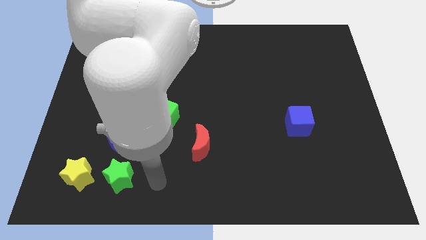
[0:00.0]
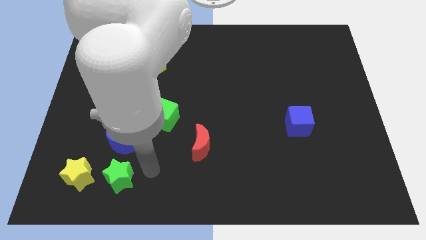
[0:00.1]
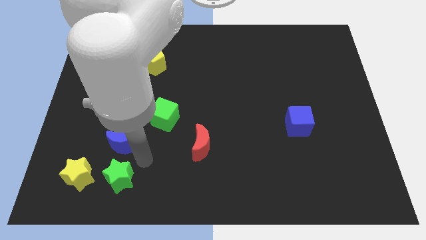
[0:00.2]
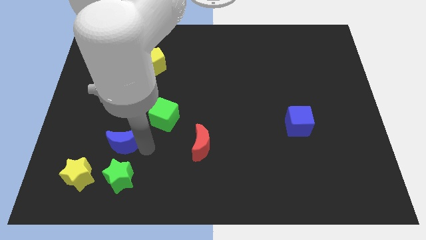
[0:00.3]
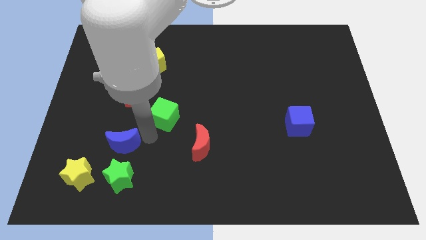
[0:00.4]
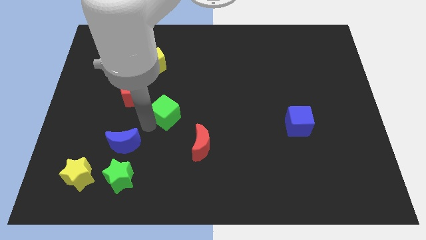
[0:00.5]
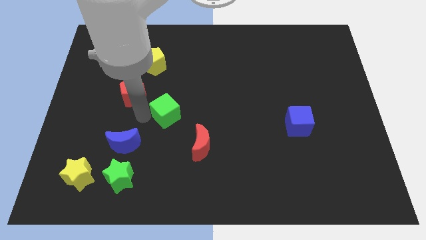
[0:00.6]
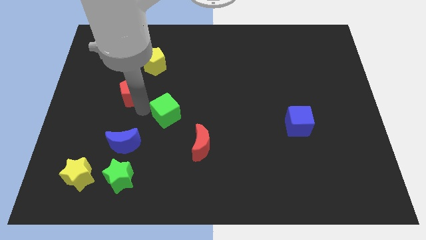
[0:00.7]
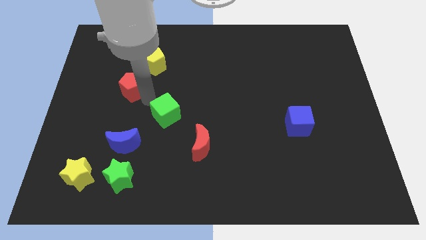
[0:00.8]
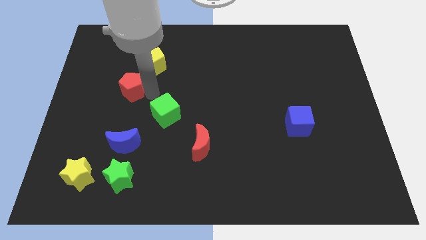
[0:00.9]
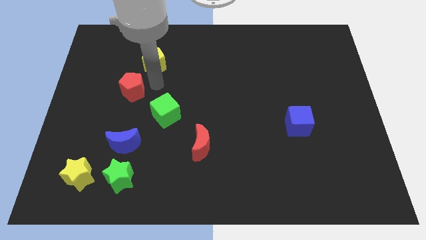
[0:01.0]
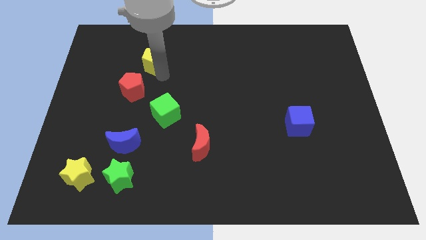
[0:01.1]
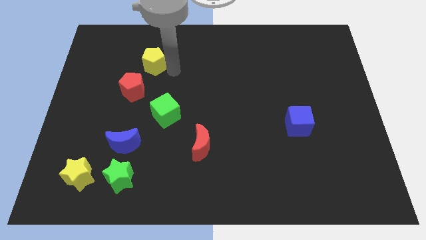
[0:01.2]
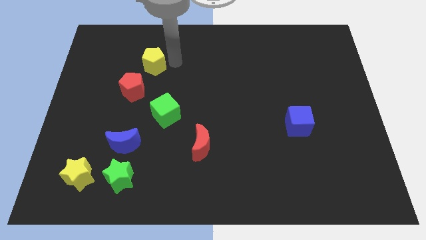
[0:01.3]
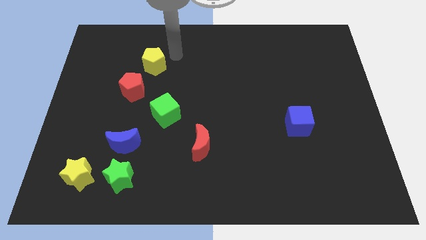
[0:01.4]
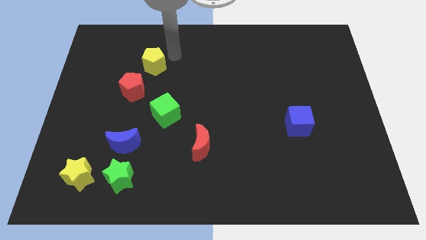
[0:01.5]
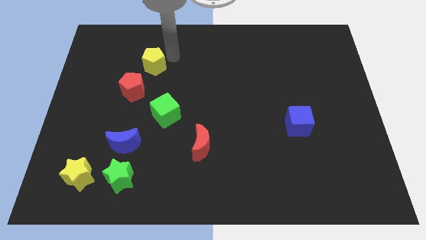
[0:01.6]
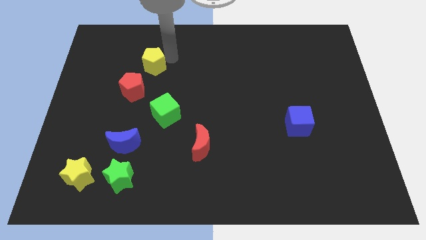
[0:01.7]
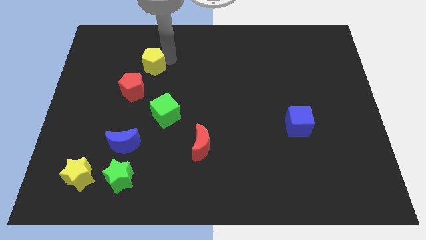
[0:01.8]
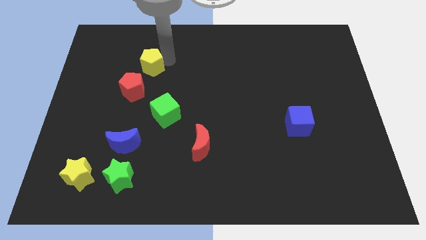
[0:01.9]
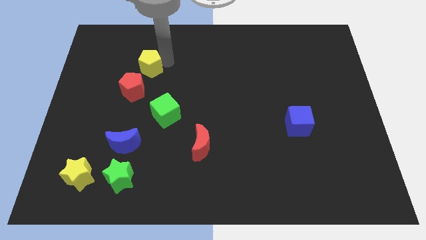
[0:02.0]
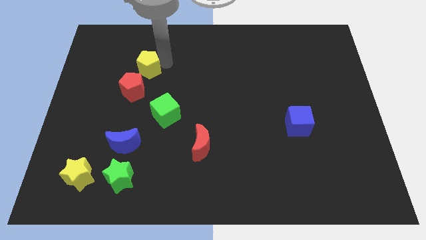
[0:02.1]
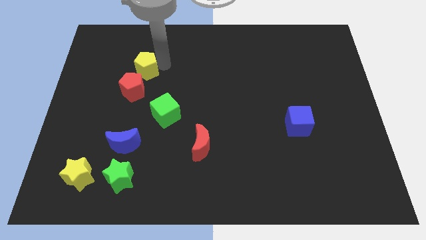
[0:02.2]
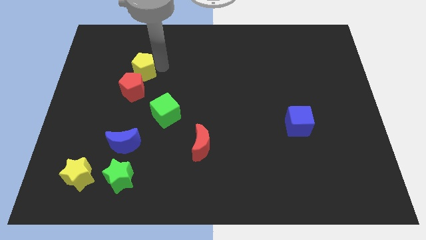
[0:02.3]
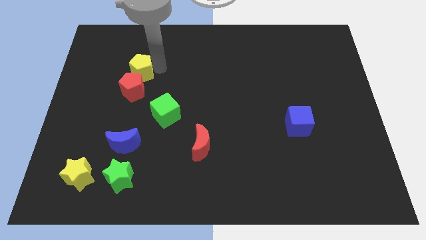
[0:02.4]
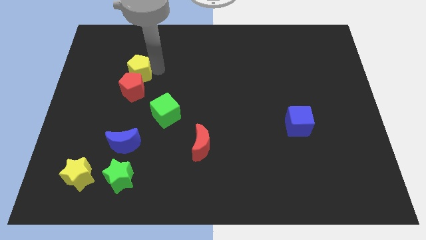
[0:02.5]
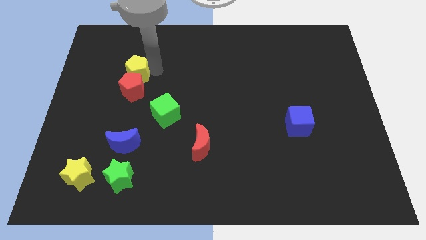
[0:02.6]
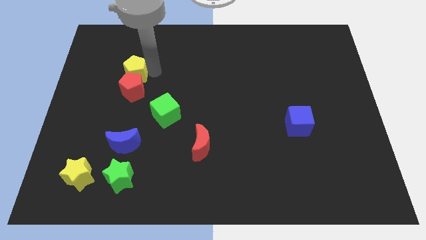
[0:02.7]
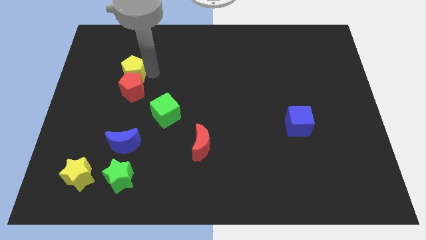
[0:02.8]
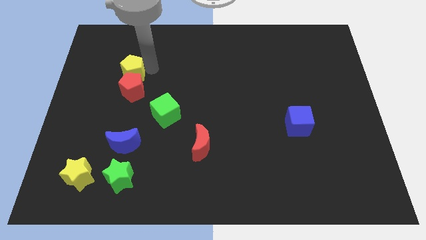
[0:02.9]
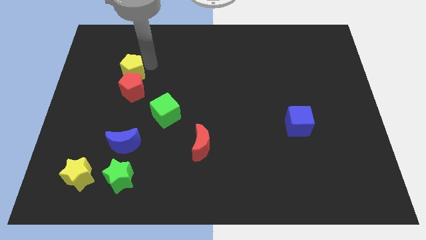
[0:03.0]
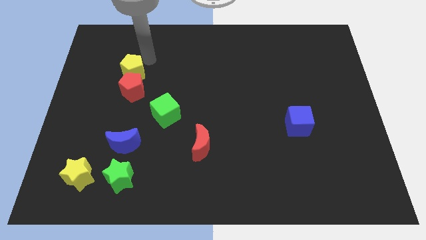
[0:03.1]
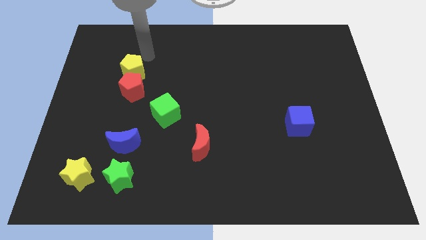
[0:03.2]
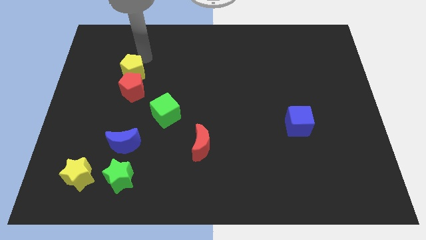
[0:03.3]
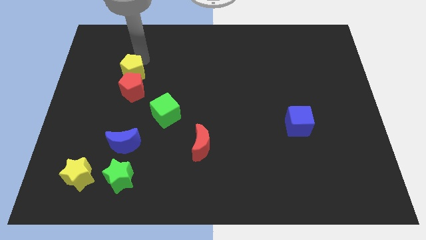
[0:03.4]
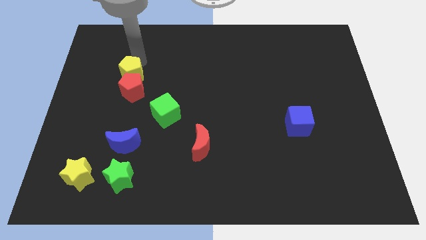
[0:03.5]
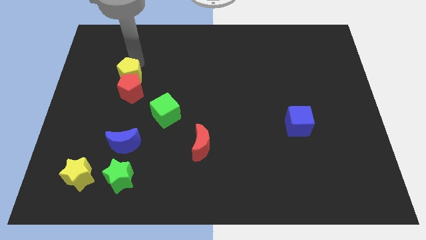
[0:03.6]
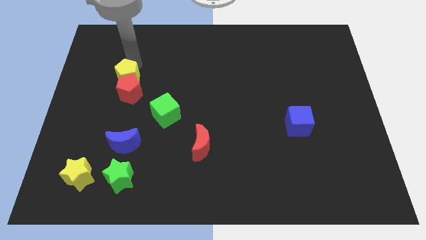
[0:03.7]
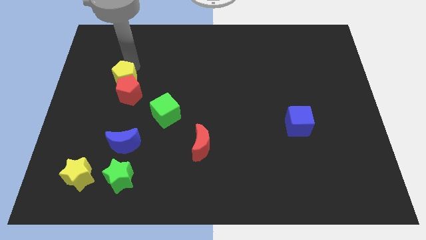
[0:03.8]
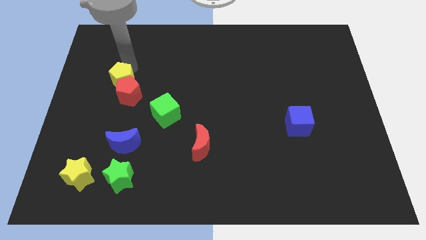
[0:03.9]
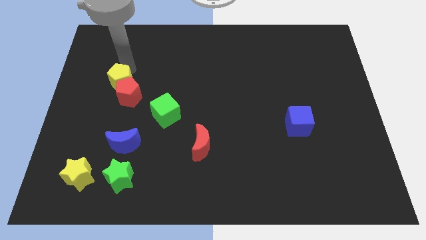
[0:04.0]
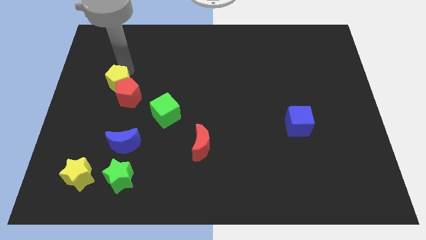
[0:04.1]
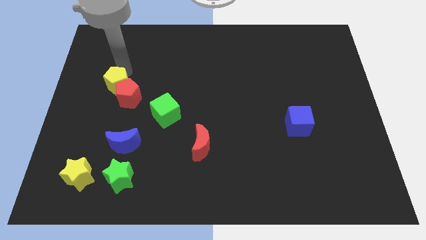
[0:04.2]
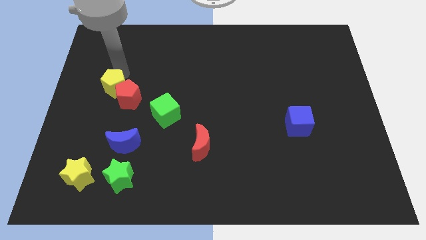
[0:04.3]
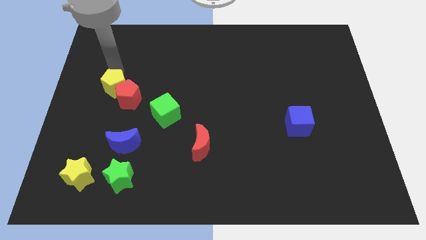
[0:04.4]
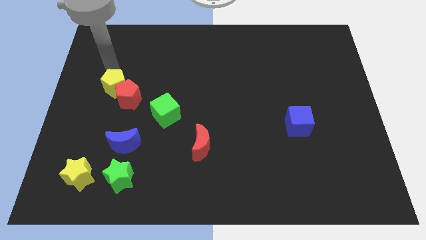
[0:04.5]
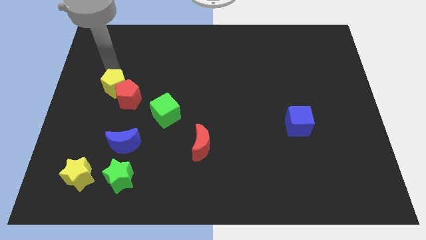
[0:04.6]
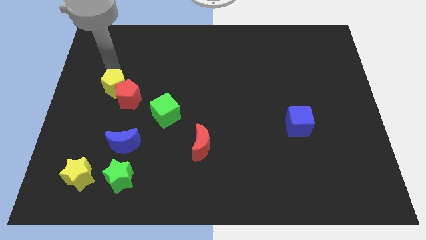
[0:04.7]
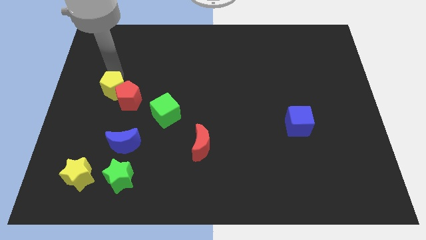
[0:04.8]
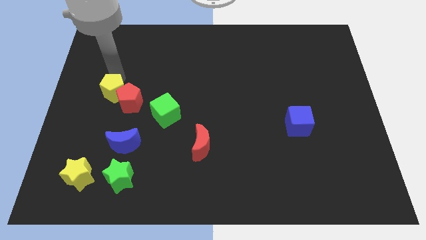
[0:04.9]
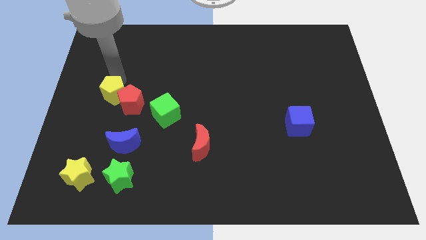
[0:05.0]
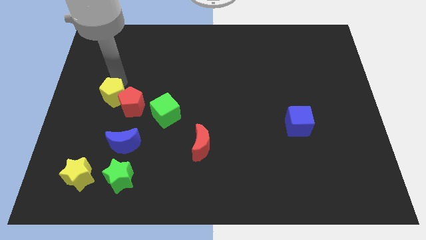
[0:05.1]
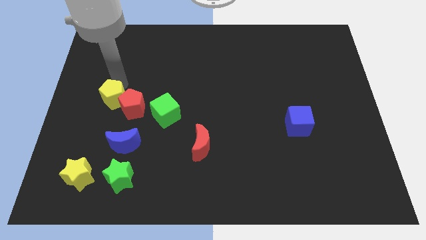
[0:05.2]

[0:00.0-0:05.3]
slide the yellow pentagon to the left of the green cube

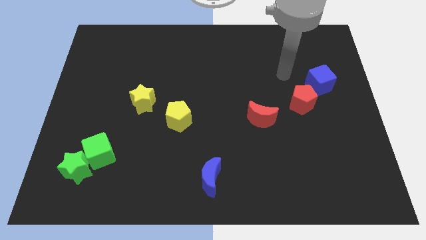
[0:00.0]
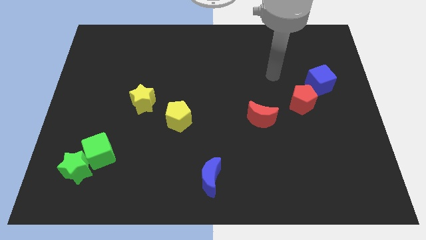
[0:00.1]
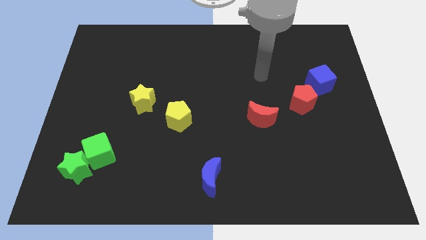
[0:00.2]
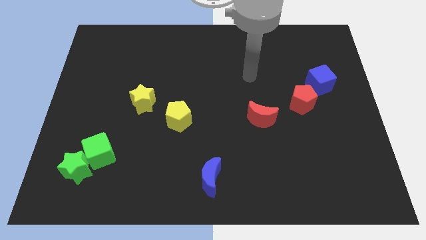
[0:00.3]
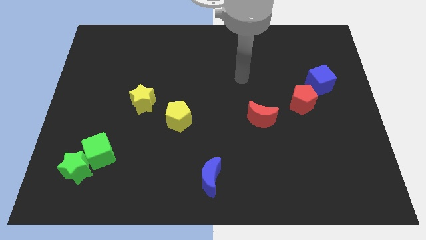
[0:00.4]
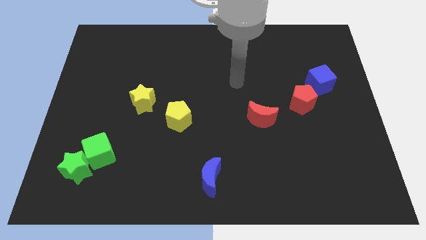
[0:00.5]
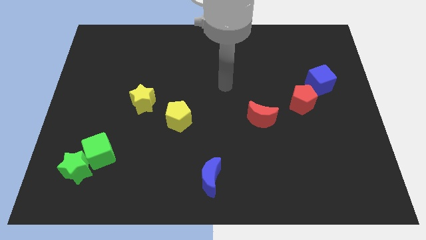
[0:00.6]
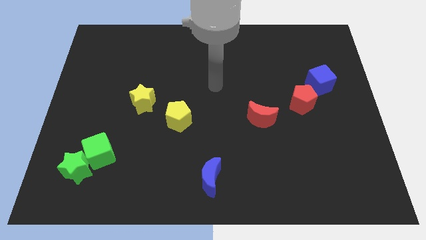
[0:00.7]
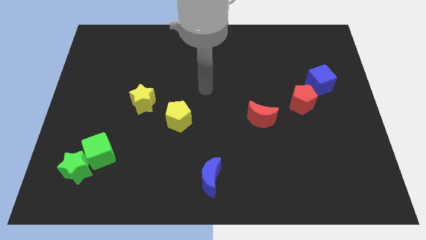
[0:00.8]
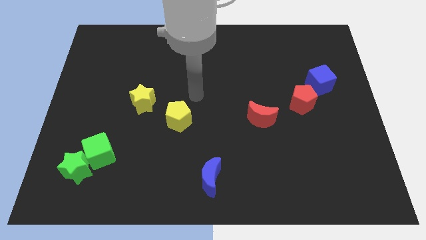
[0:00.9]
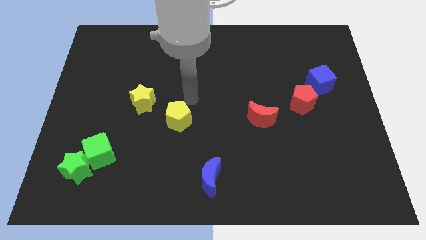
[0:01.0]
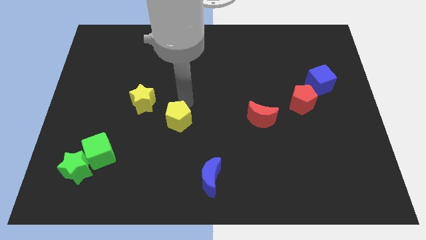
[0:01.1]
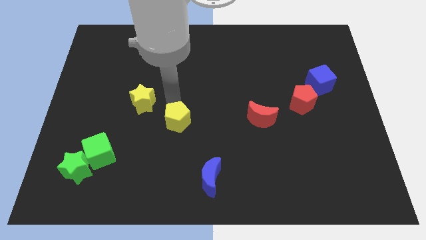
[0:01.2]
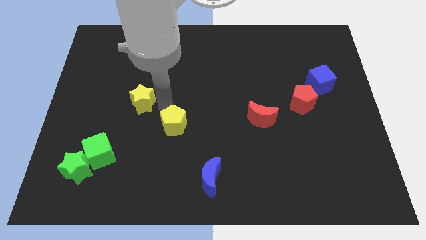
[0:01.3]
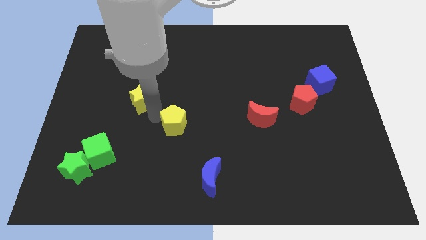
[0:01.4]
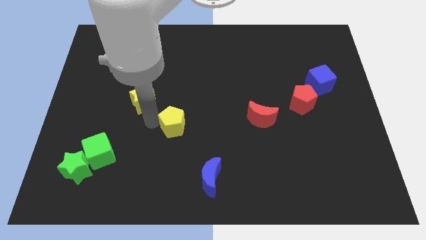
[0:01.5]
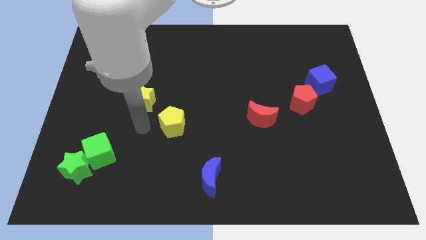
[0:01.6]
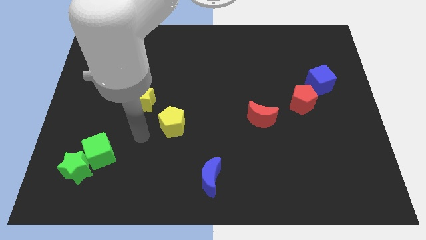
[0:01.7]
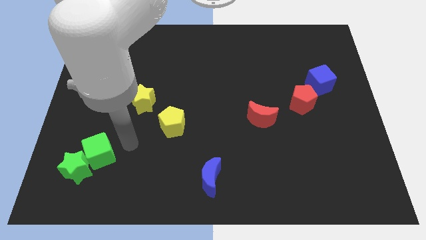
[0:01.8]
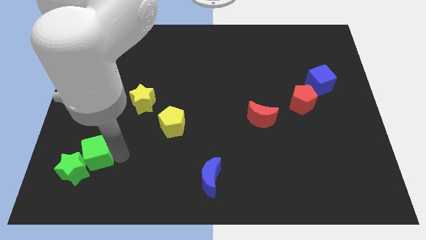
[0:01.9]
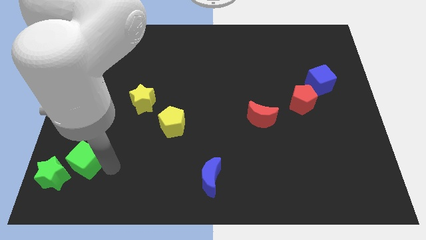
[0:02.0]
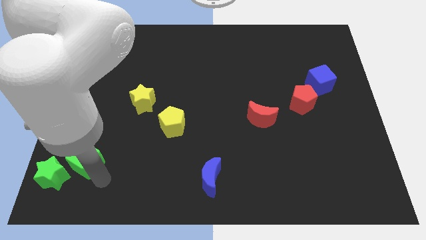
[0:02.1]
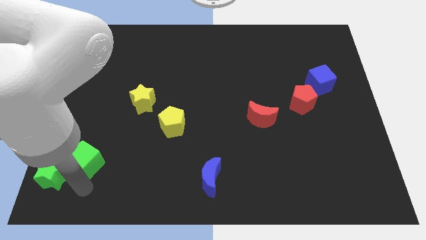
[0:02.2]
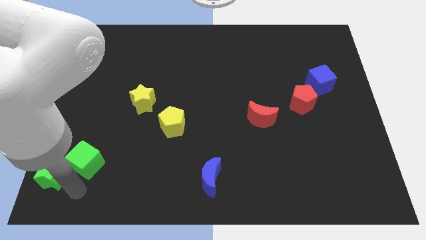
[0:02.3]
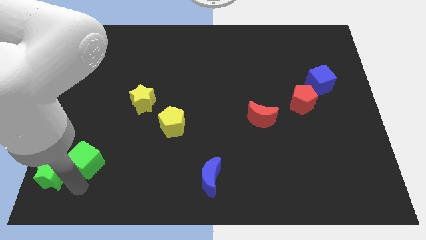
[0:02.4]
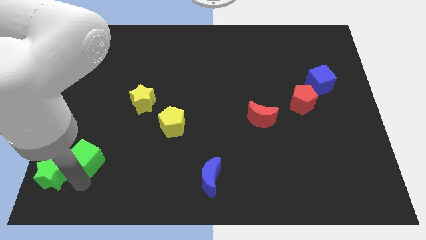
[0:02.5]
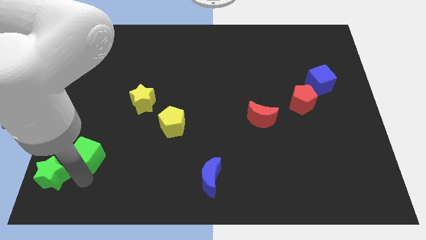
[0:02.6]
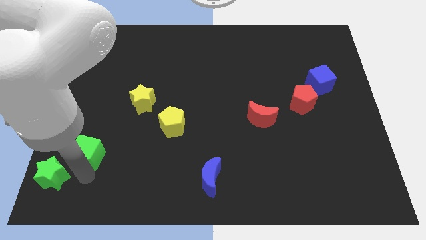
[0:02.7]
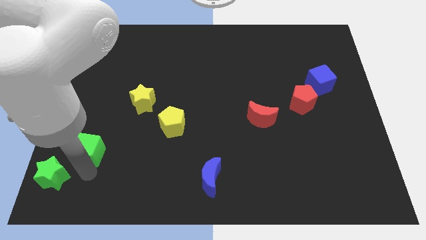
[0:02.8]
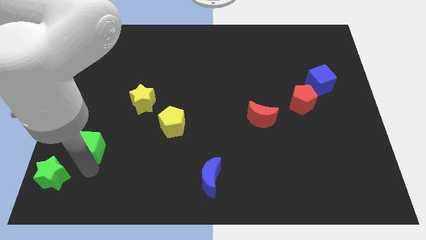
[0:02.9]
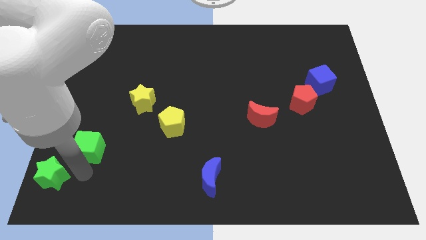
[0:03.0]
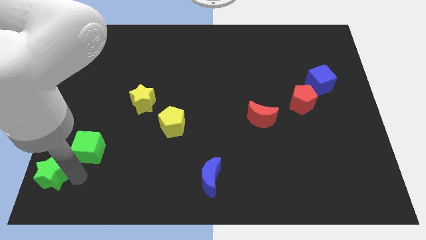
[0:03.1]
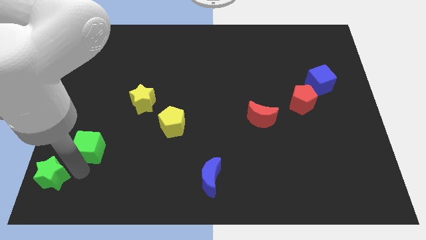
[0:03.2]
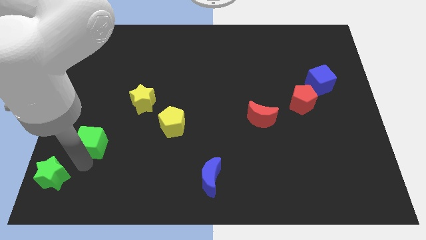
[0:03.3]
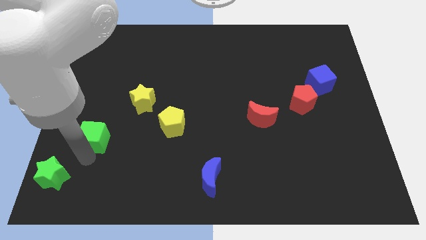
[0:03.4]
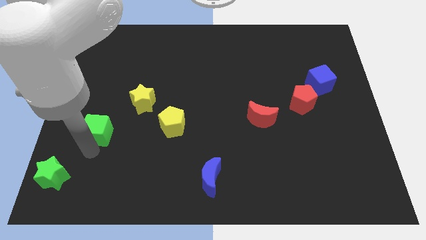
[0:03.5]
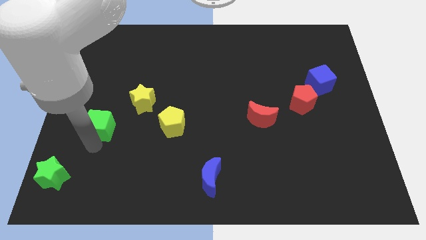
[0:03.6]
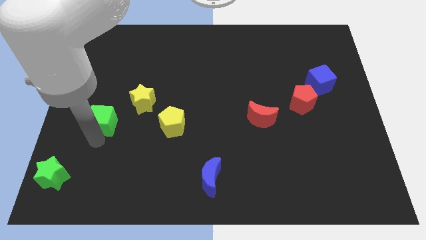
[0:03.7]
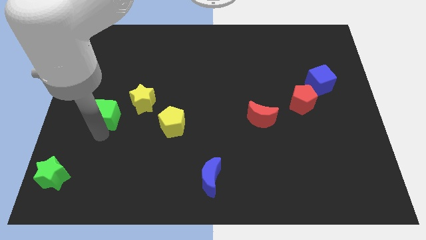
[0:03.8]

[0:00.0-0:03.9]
put the green cube to the left side of the yellow star
